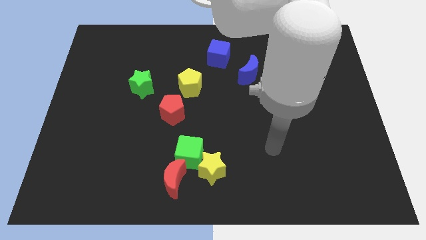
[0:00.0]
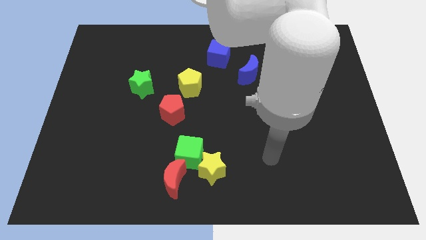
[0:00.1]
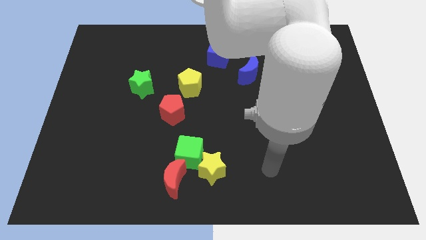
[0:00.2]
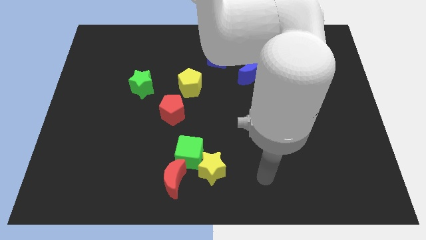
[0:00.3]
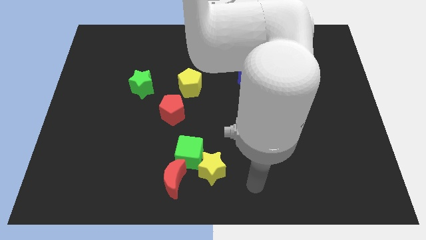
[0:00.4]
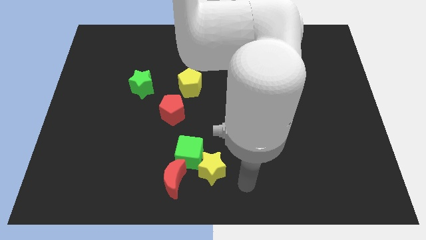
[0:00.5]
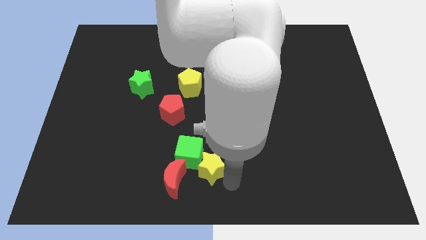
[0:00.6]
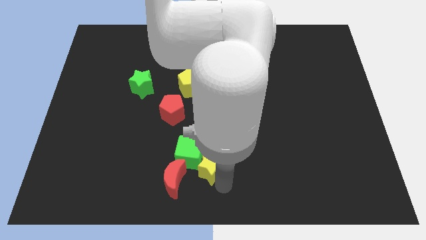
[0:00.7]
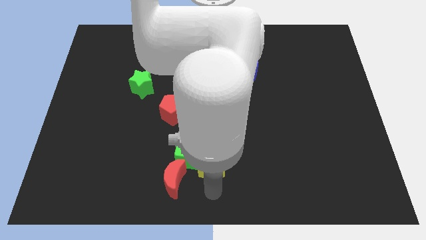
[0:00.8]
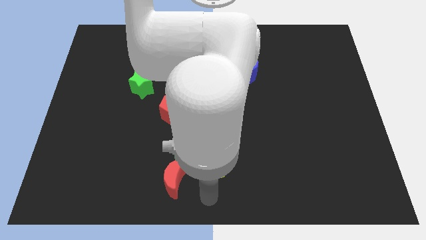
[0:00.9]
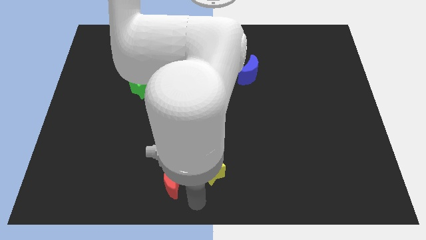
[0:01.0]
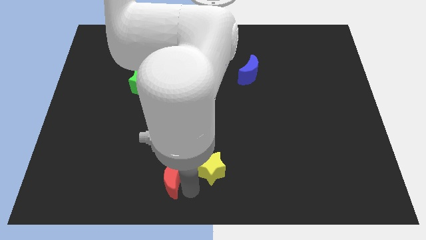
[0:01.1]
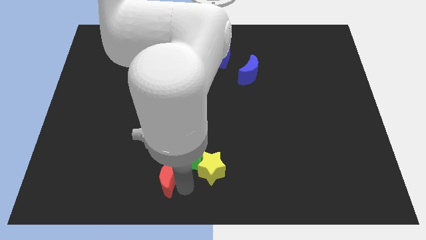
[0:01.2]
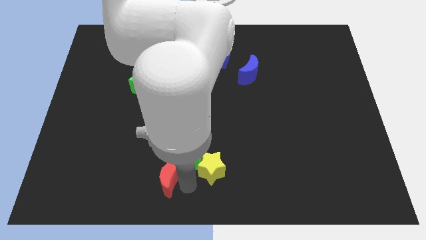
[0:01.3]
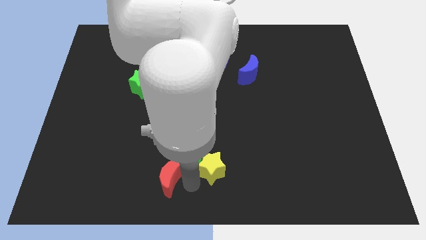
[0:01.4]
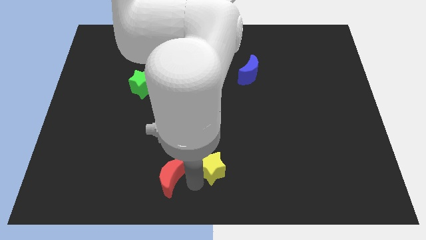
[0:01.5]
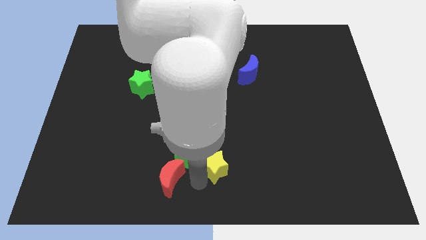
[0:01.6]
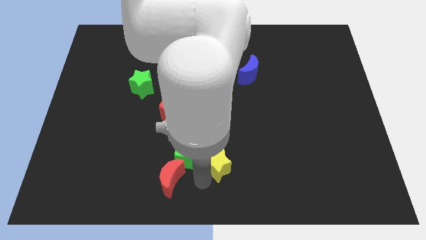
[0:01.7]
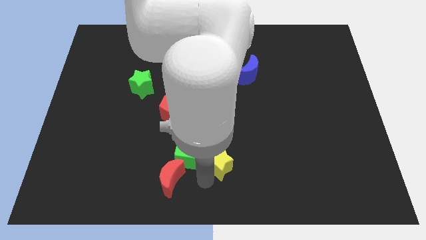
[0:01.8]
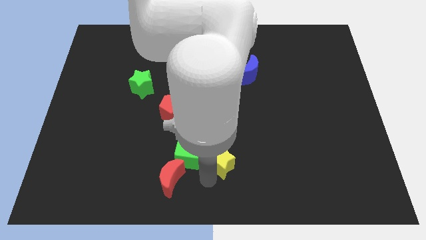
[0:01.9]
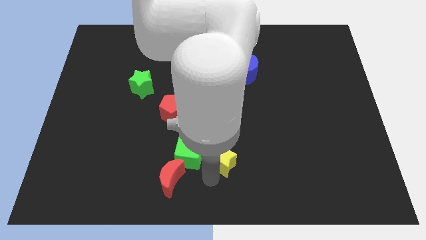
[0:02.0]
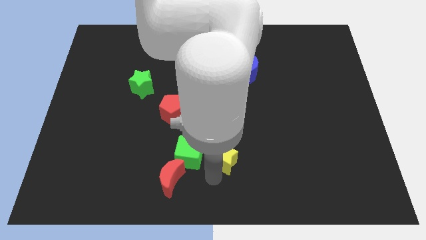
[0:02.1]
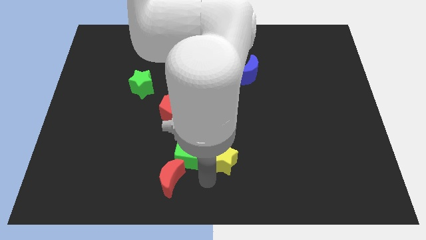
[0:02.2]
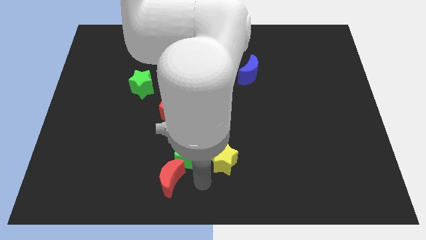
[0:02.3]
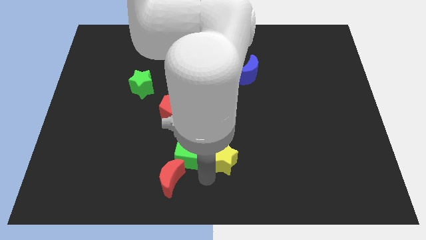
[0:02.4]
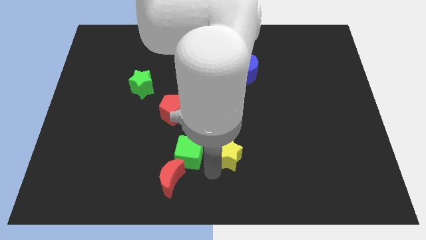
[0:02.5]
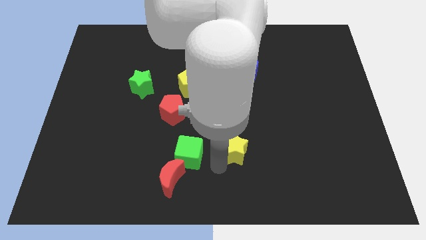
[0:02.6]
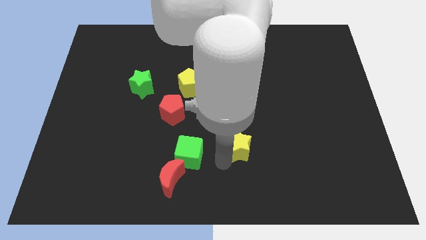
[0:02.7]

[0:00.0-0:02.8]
slightly slide the yellow star upwards and right diagonally

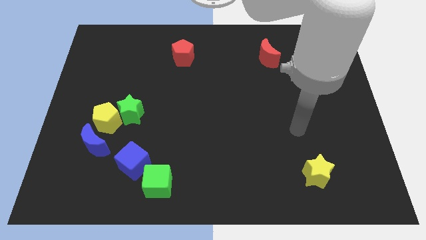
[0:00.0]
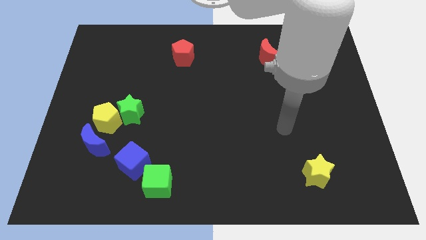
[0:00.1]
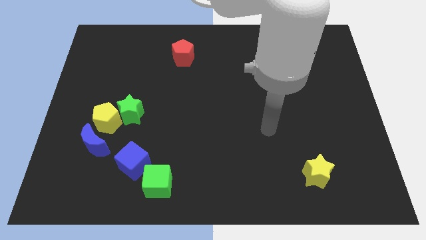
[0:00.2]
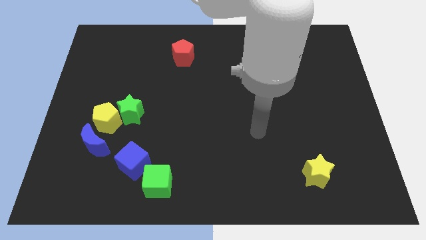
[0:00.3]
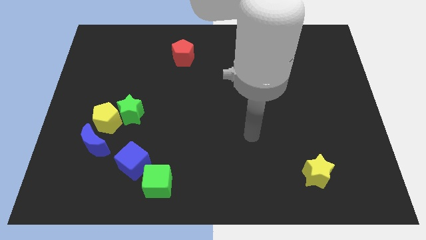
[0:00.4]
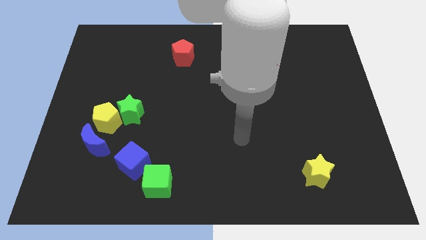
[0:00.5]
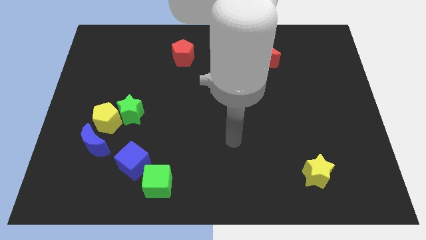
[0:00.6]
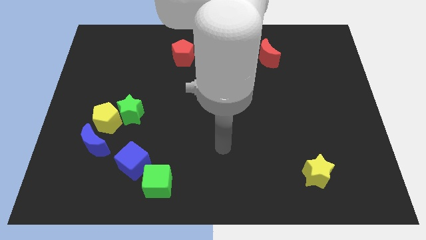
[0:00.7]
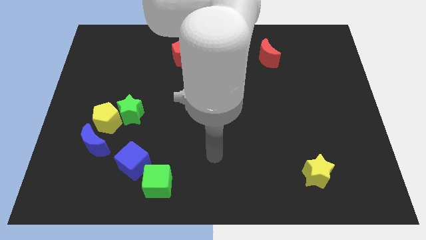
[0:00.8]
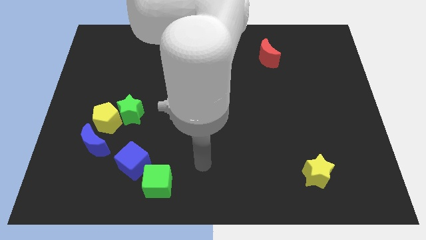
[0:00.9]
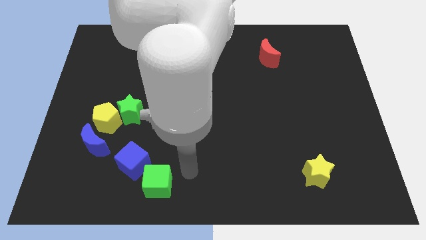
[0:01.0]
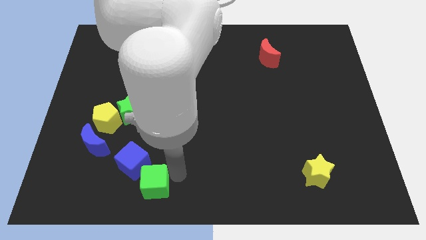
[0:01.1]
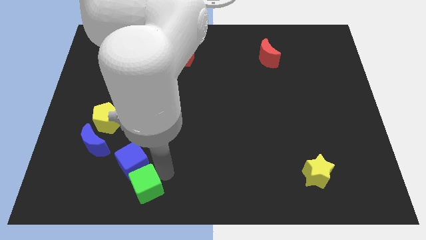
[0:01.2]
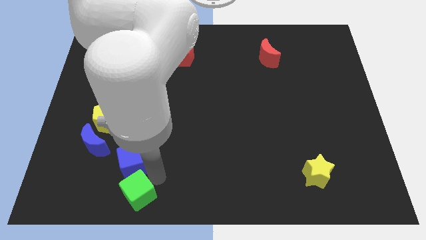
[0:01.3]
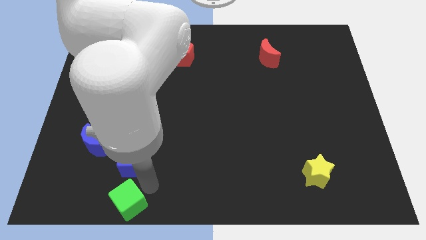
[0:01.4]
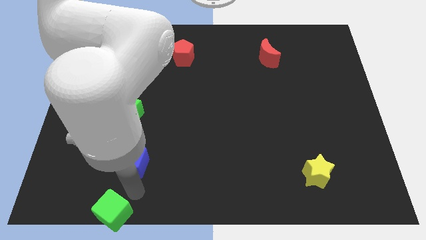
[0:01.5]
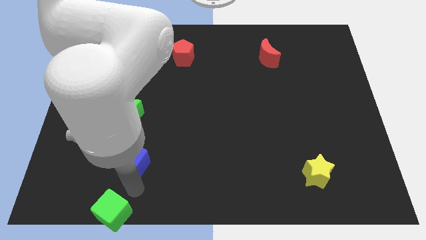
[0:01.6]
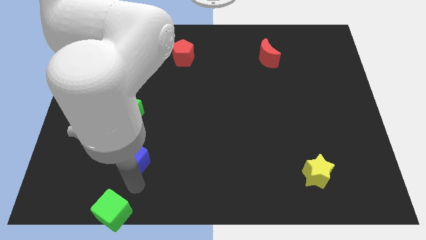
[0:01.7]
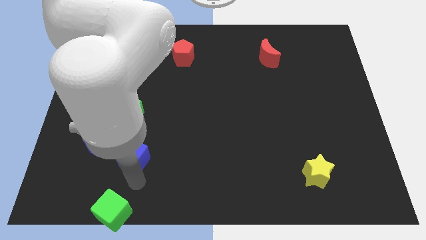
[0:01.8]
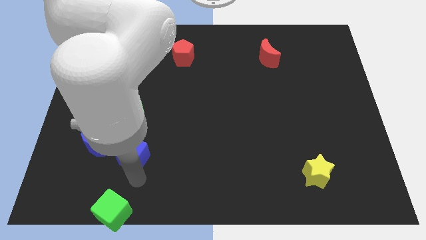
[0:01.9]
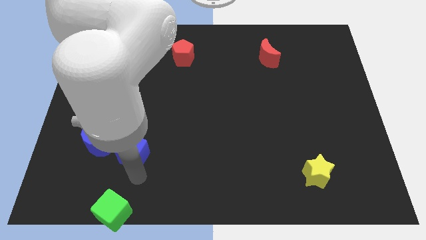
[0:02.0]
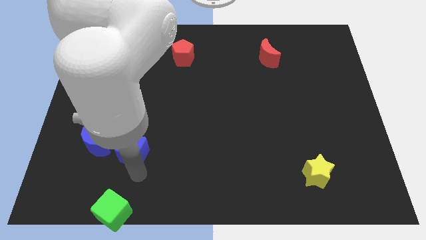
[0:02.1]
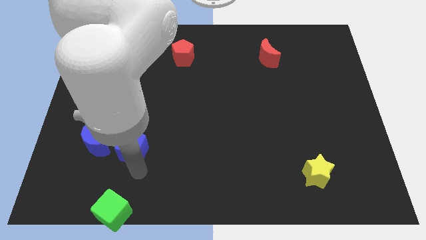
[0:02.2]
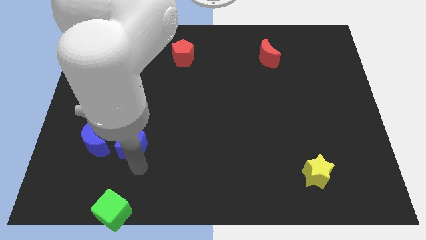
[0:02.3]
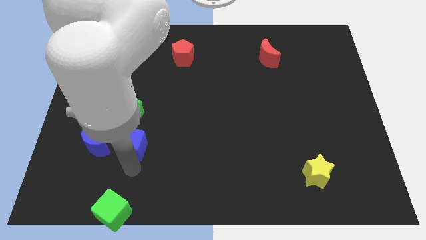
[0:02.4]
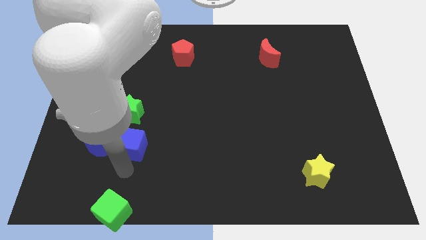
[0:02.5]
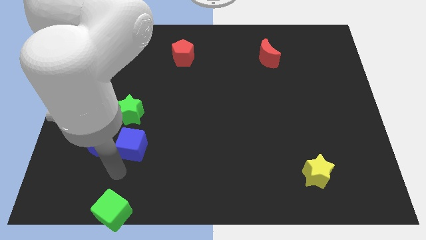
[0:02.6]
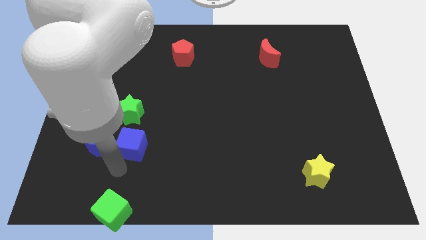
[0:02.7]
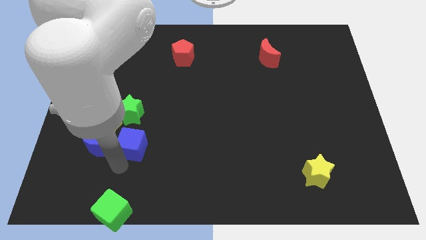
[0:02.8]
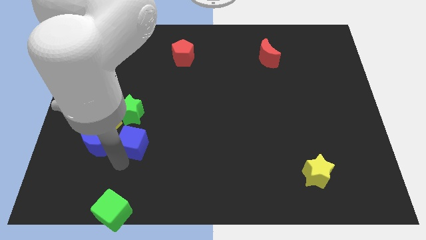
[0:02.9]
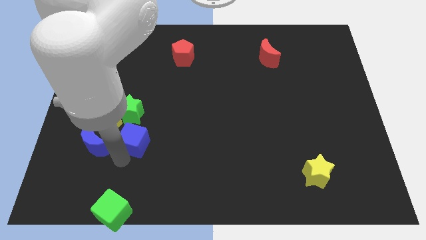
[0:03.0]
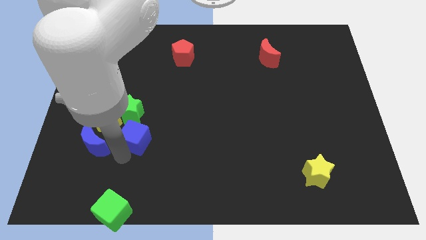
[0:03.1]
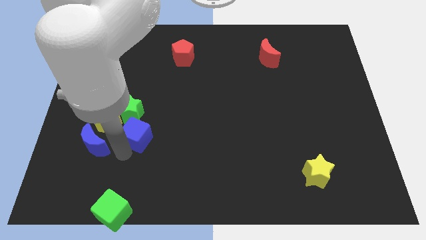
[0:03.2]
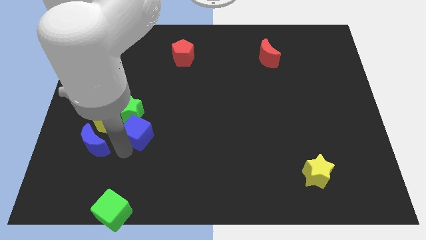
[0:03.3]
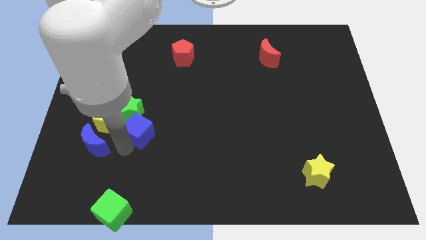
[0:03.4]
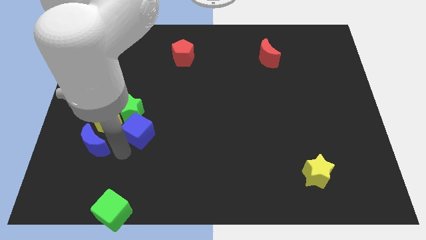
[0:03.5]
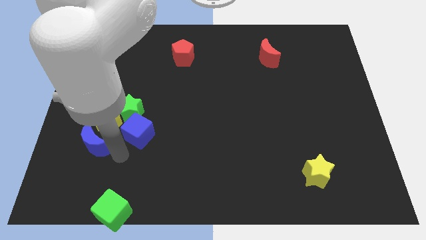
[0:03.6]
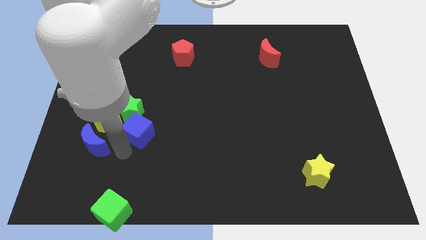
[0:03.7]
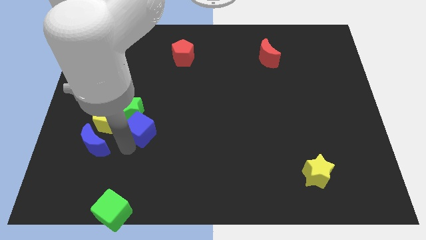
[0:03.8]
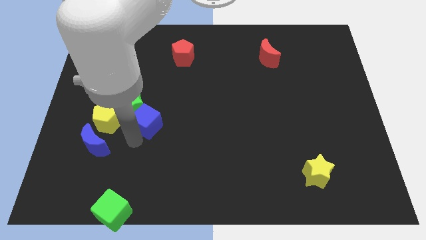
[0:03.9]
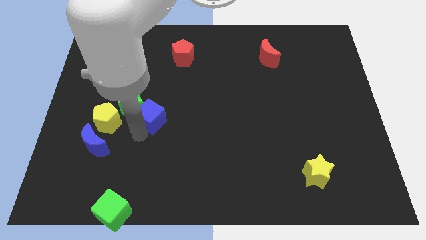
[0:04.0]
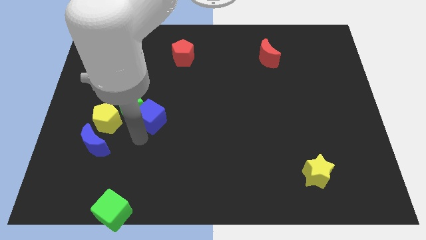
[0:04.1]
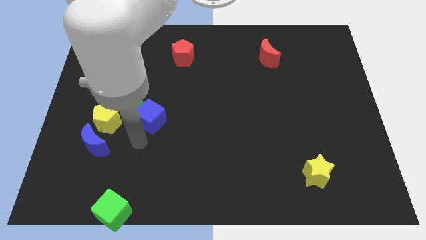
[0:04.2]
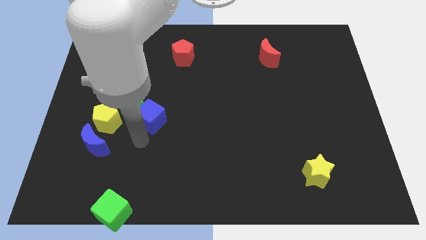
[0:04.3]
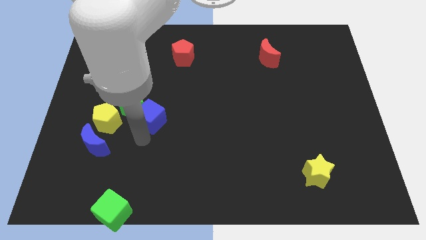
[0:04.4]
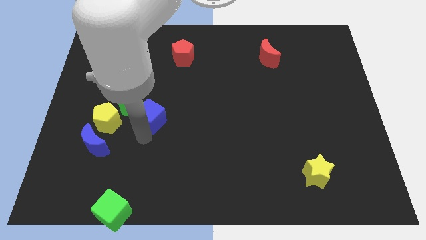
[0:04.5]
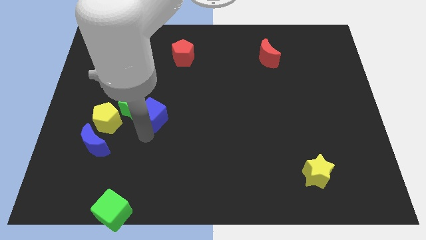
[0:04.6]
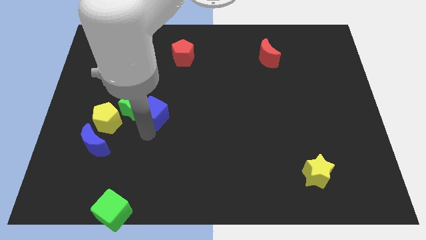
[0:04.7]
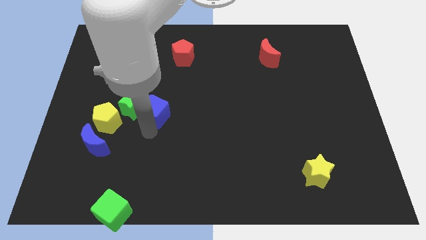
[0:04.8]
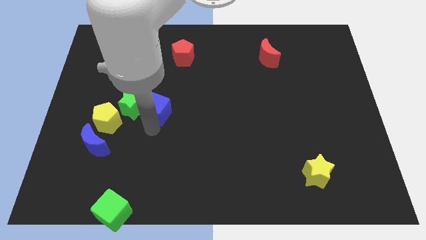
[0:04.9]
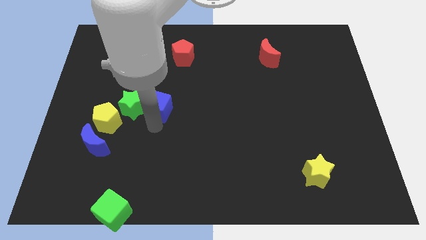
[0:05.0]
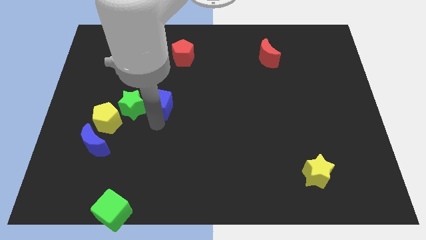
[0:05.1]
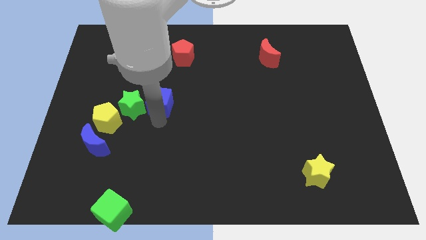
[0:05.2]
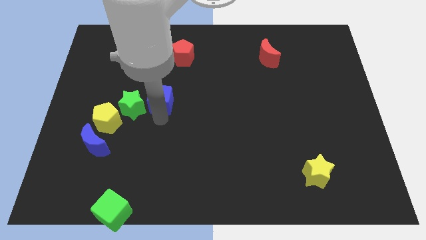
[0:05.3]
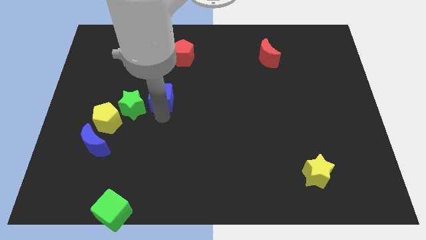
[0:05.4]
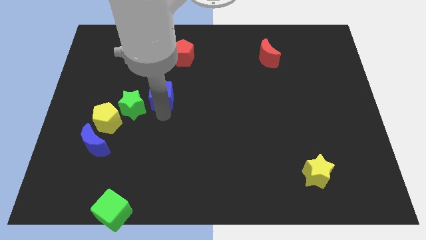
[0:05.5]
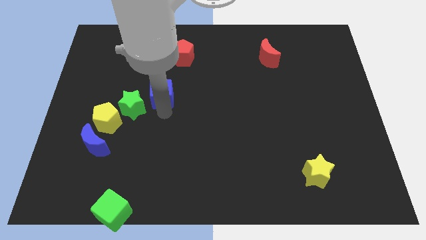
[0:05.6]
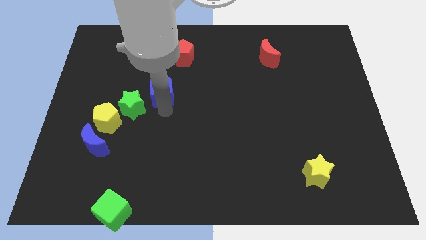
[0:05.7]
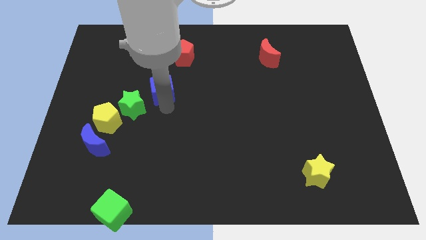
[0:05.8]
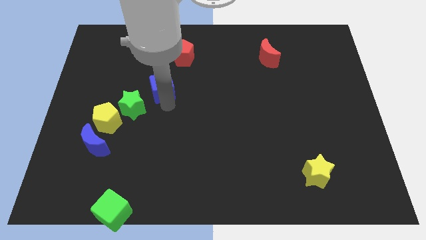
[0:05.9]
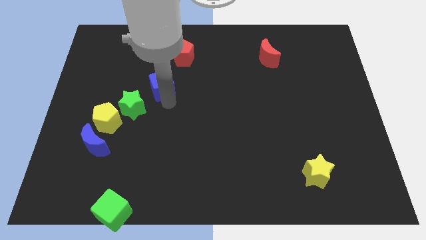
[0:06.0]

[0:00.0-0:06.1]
move the blue cube up
